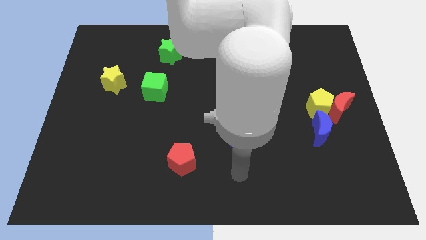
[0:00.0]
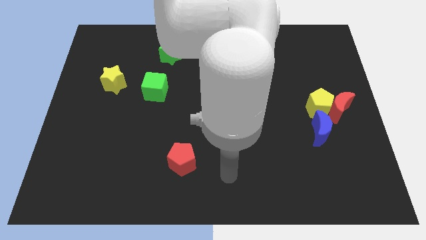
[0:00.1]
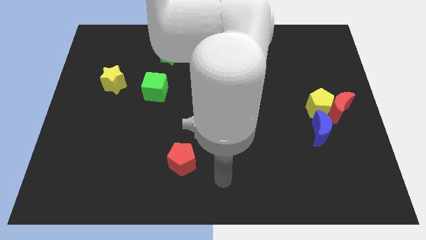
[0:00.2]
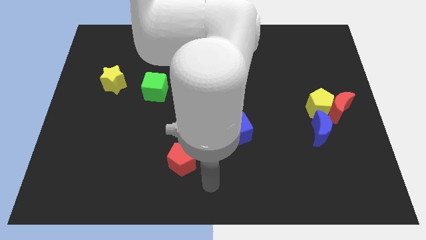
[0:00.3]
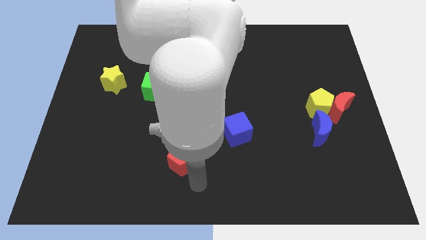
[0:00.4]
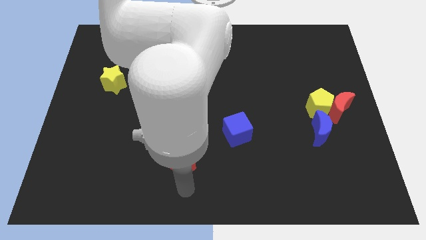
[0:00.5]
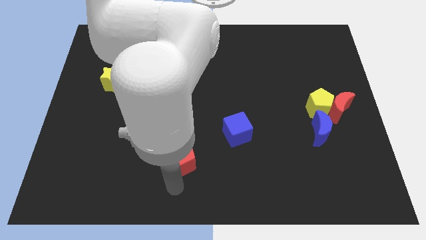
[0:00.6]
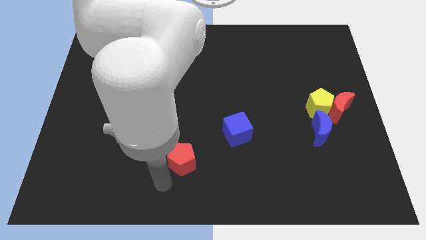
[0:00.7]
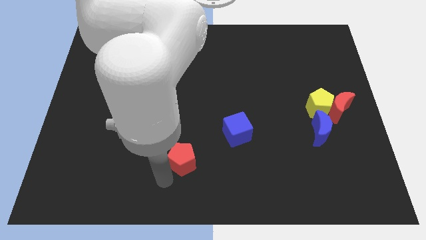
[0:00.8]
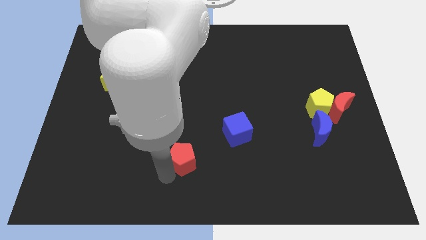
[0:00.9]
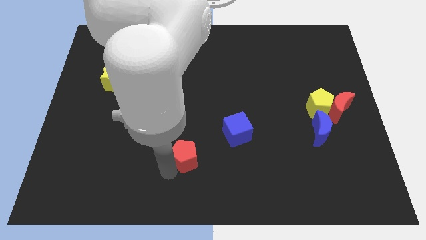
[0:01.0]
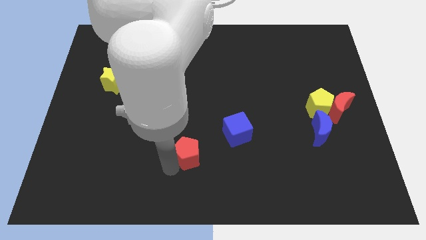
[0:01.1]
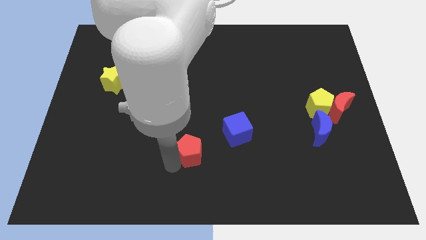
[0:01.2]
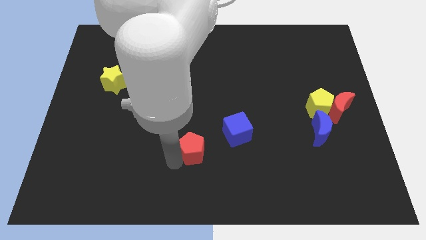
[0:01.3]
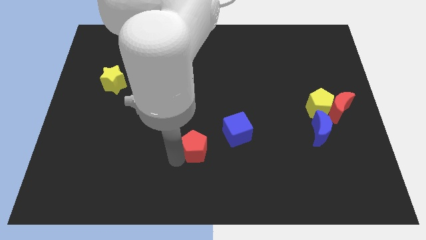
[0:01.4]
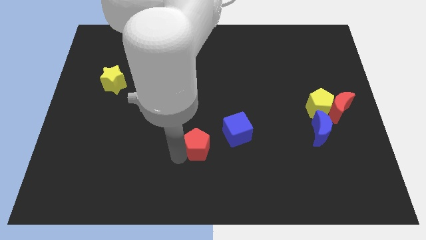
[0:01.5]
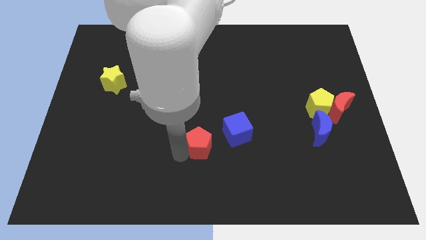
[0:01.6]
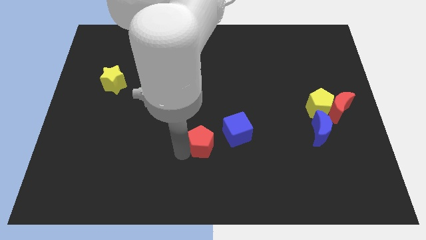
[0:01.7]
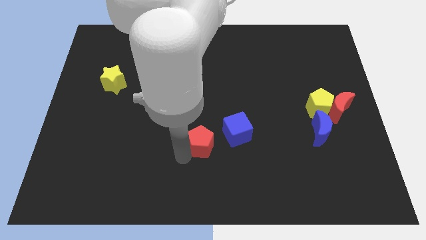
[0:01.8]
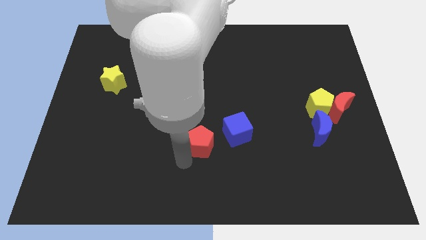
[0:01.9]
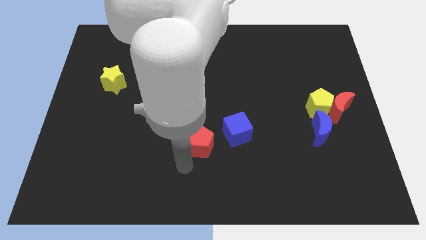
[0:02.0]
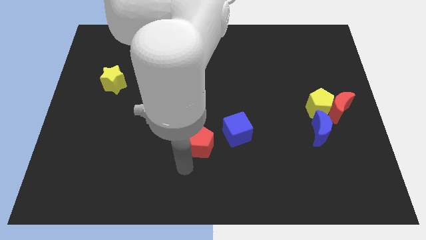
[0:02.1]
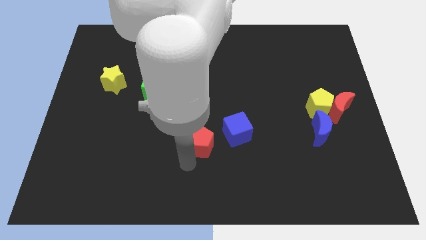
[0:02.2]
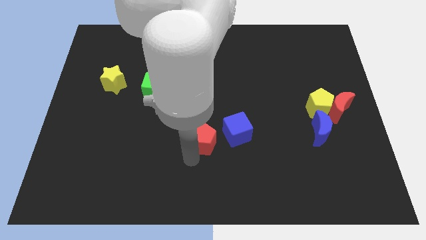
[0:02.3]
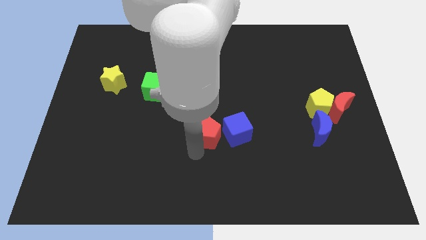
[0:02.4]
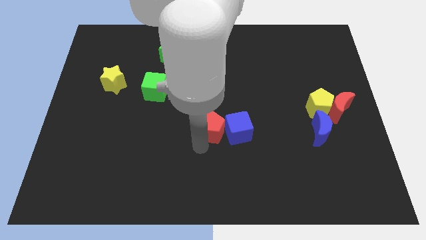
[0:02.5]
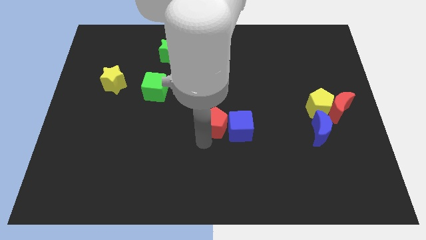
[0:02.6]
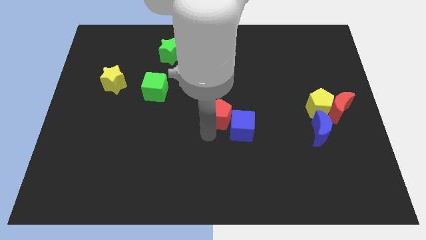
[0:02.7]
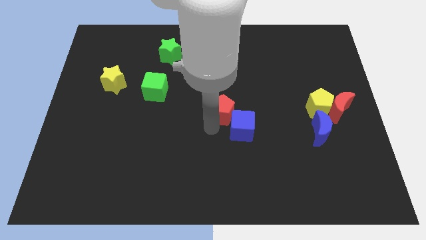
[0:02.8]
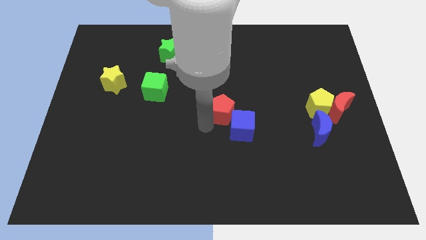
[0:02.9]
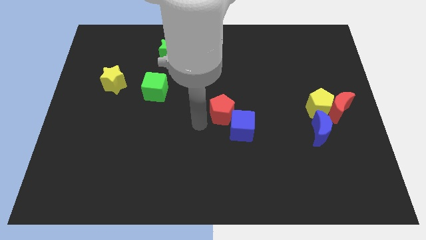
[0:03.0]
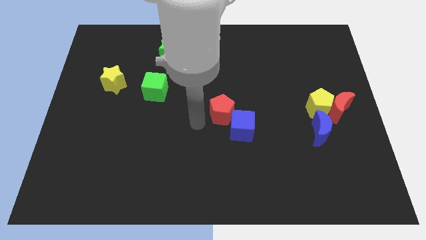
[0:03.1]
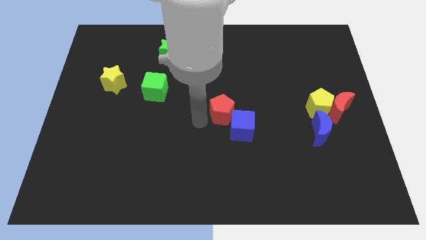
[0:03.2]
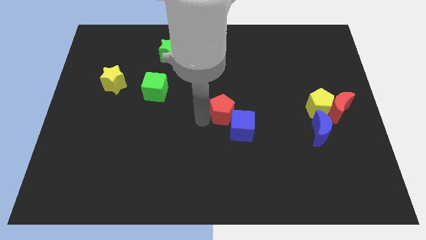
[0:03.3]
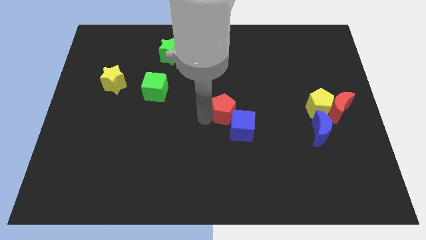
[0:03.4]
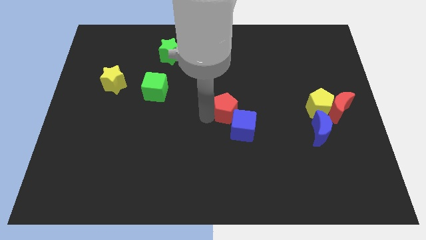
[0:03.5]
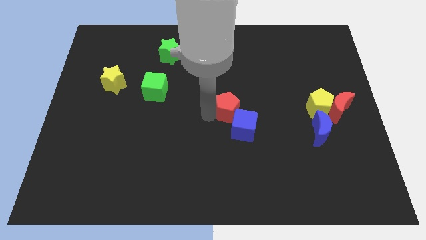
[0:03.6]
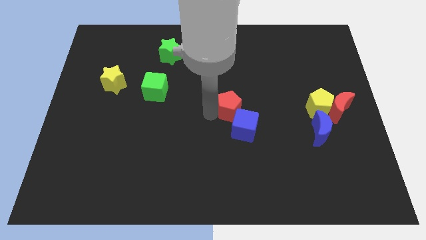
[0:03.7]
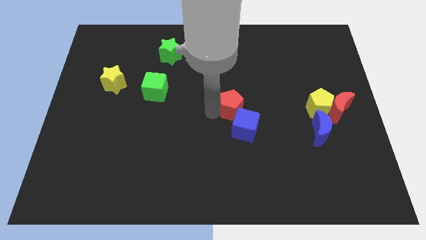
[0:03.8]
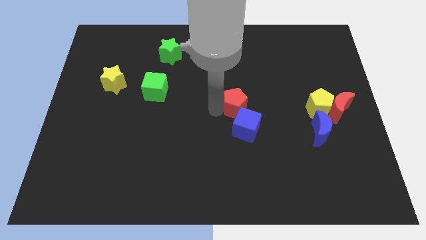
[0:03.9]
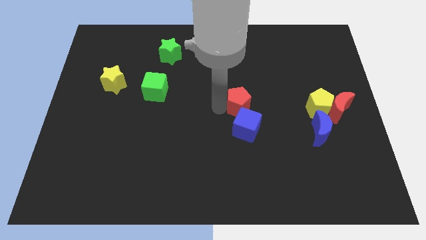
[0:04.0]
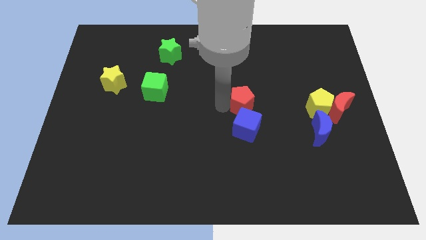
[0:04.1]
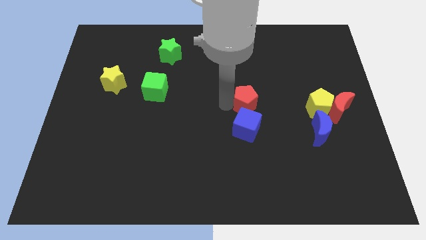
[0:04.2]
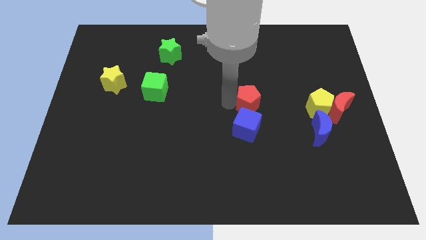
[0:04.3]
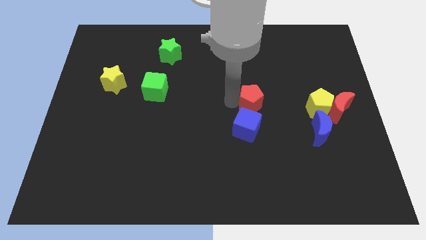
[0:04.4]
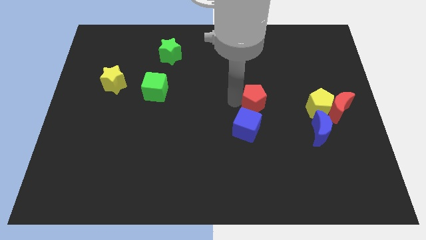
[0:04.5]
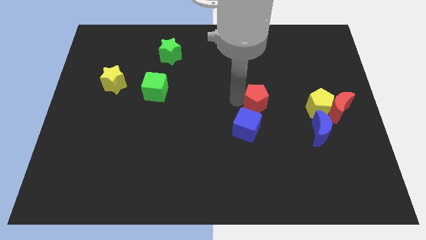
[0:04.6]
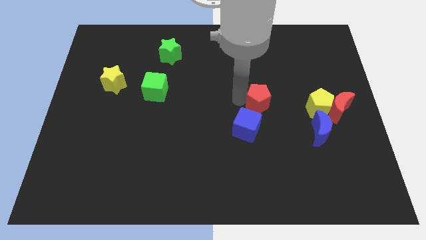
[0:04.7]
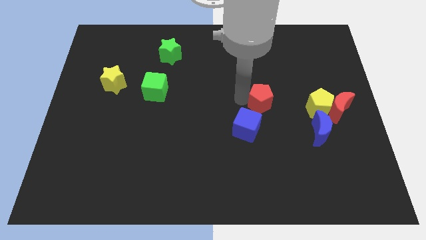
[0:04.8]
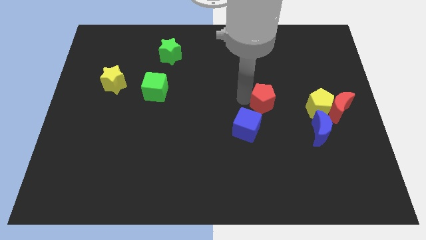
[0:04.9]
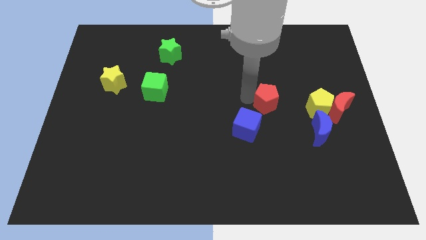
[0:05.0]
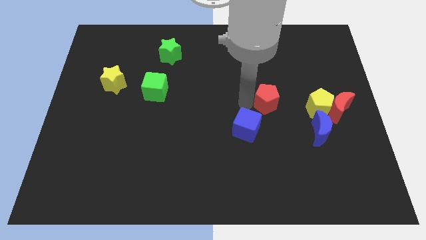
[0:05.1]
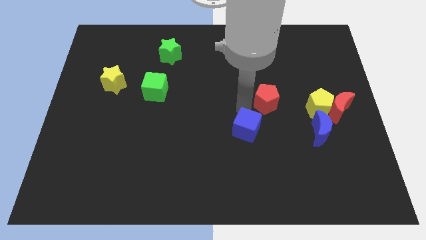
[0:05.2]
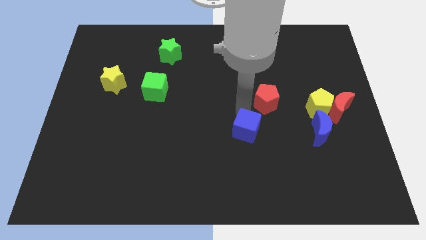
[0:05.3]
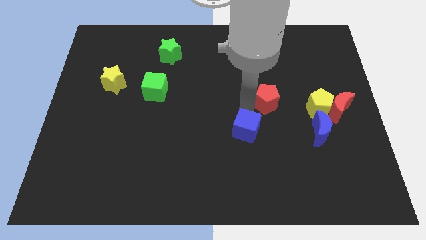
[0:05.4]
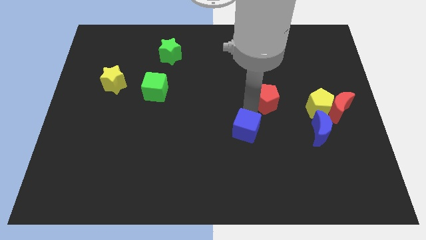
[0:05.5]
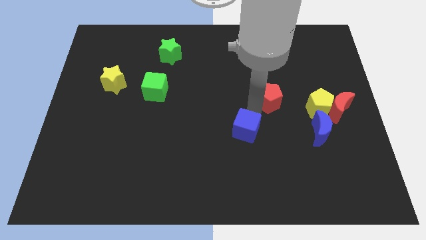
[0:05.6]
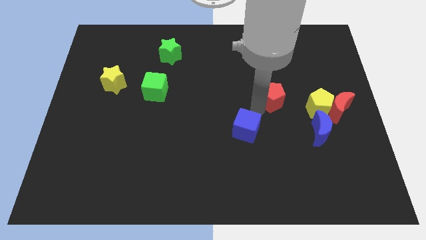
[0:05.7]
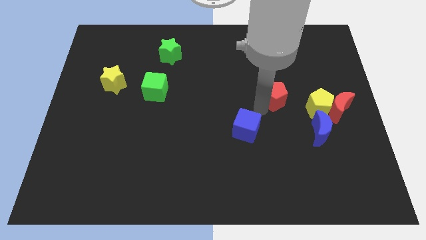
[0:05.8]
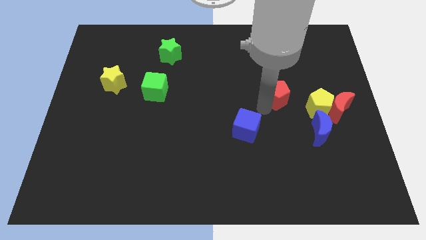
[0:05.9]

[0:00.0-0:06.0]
push the red pentagon diagonally up and to the left of the yellow pentagon

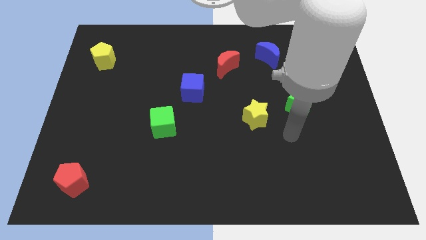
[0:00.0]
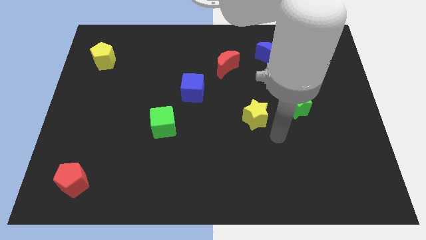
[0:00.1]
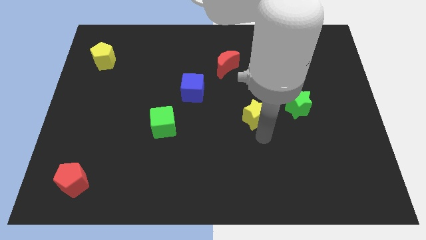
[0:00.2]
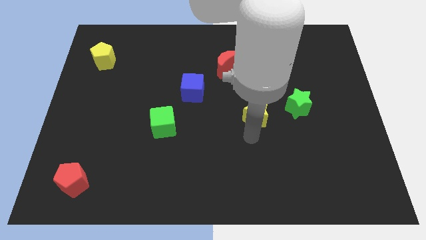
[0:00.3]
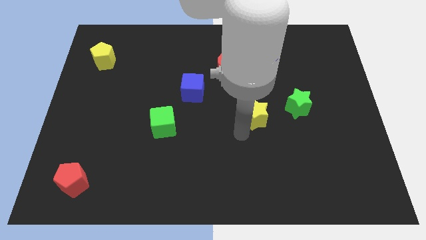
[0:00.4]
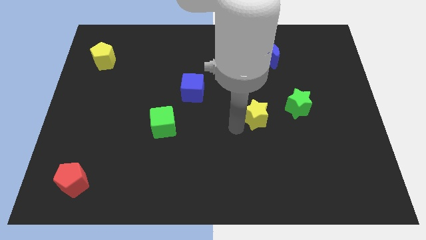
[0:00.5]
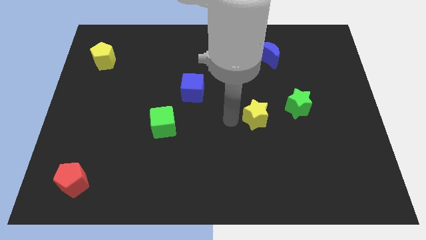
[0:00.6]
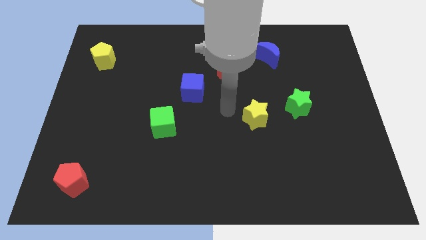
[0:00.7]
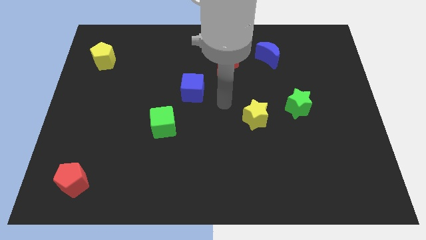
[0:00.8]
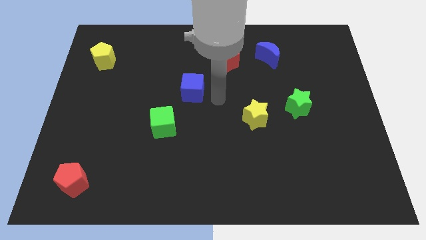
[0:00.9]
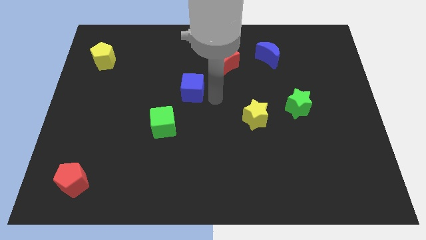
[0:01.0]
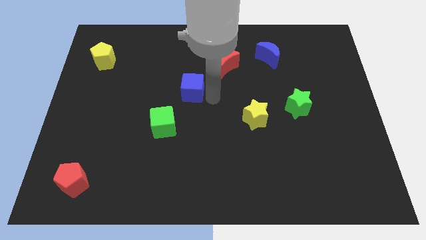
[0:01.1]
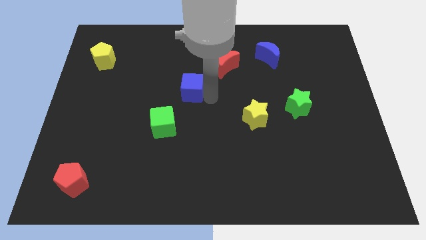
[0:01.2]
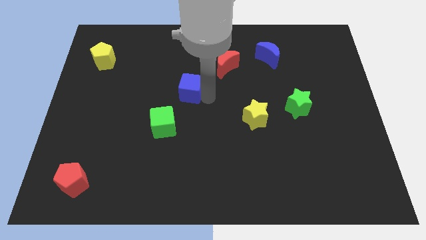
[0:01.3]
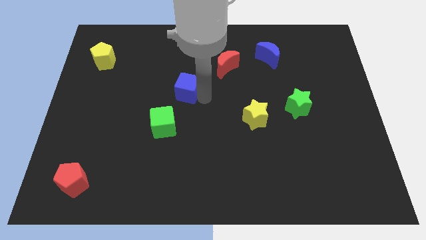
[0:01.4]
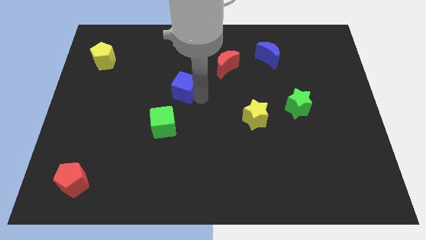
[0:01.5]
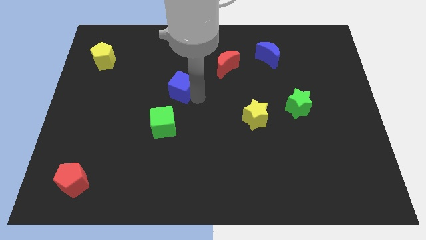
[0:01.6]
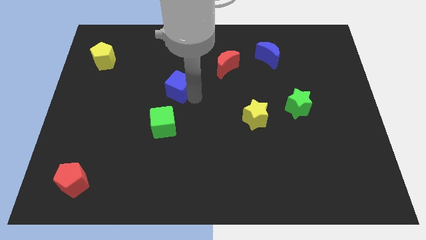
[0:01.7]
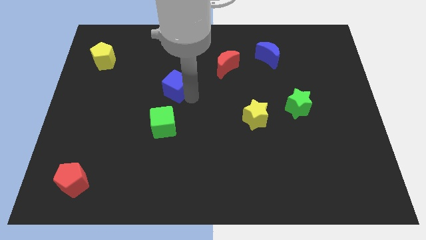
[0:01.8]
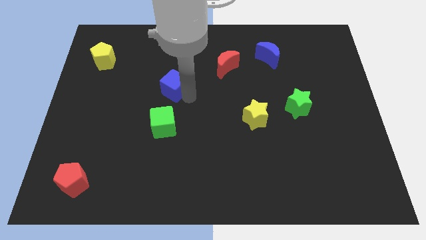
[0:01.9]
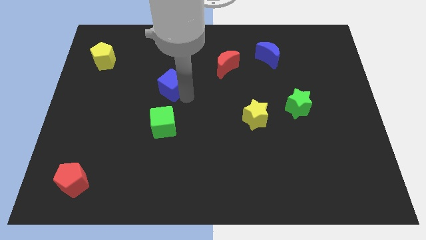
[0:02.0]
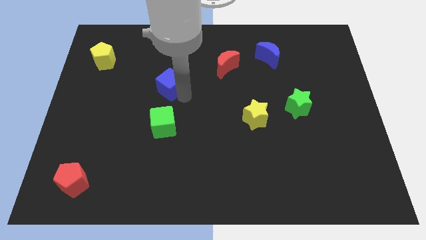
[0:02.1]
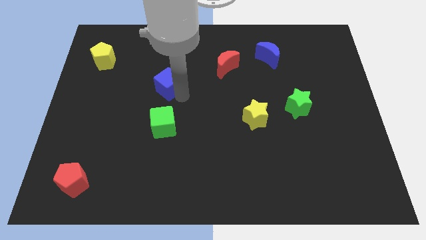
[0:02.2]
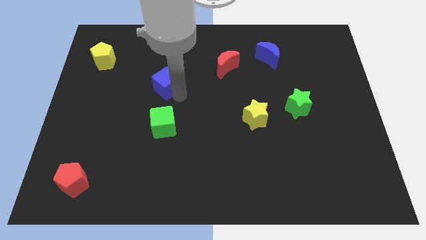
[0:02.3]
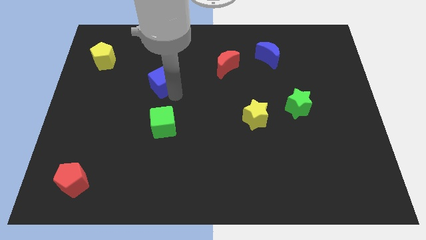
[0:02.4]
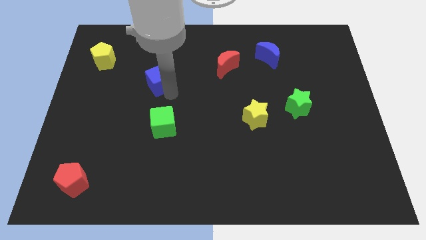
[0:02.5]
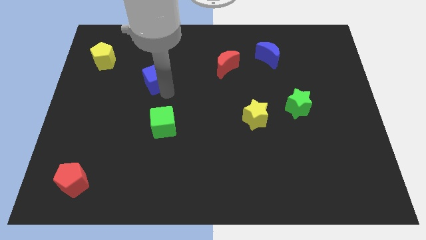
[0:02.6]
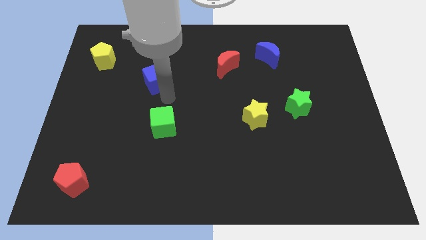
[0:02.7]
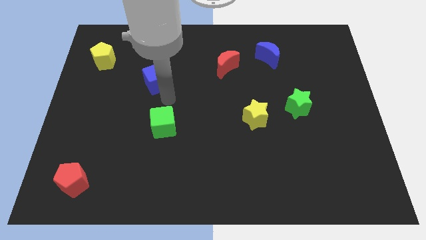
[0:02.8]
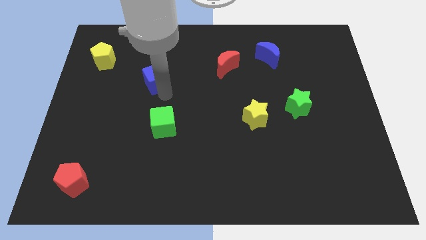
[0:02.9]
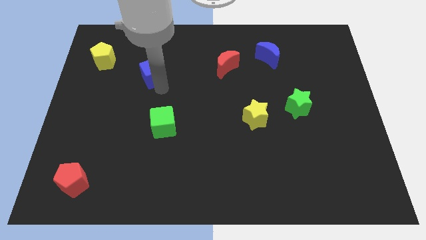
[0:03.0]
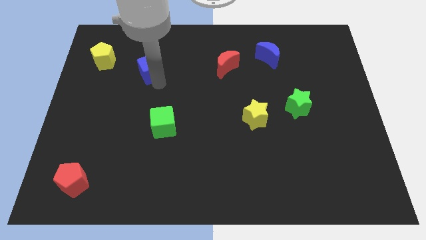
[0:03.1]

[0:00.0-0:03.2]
slide the blue cube just right of the yellow pentagon
